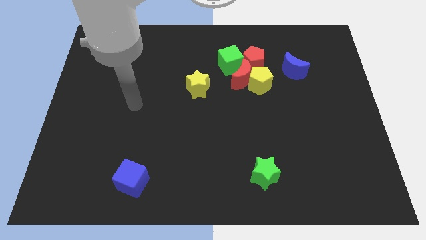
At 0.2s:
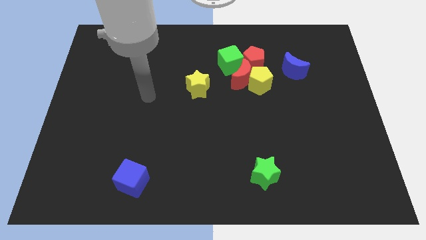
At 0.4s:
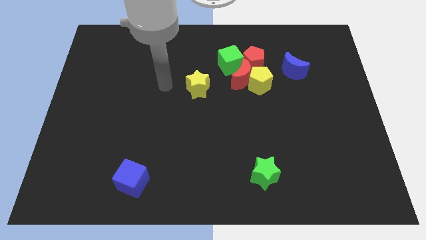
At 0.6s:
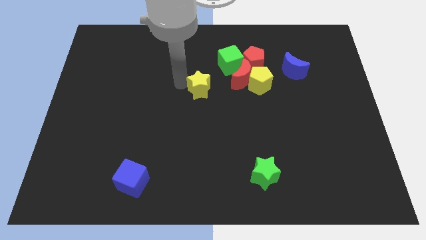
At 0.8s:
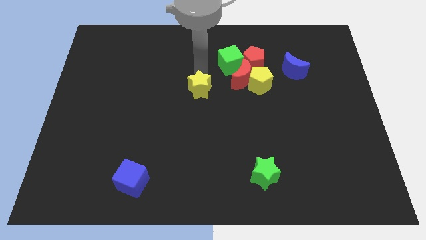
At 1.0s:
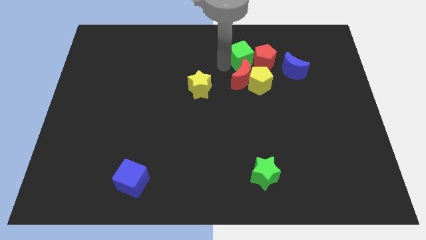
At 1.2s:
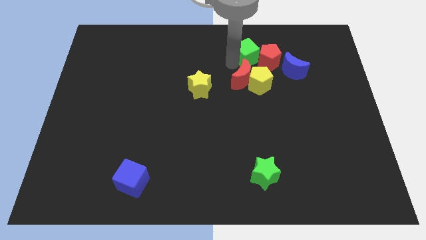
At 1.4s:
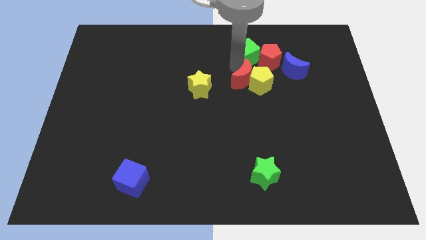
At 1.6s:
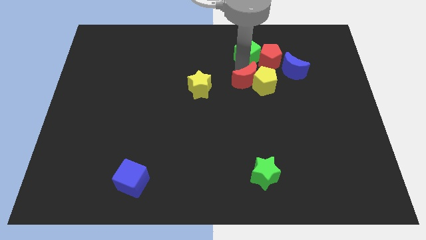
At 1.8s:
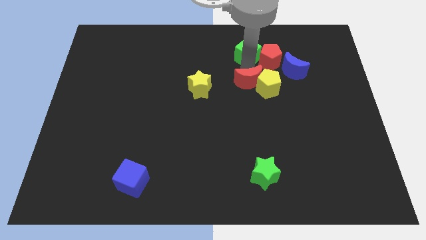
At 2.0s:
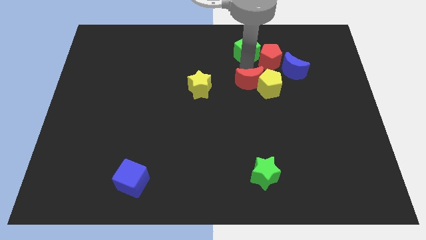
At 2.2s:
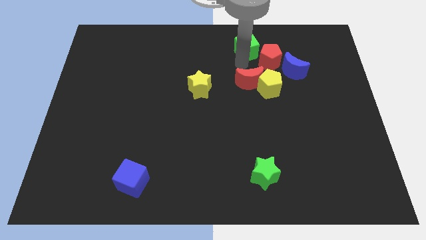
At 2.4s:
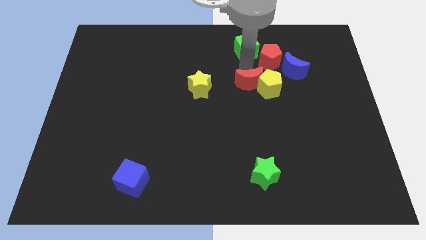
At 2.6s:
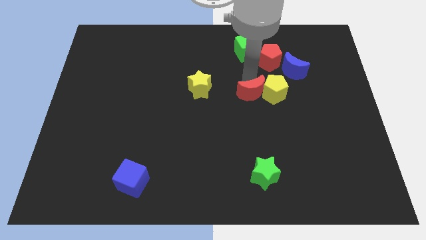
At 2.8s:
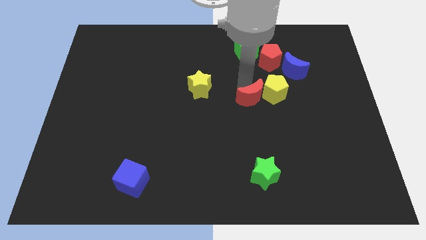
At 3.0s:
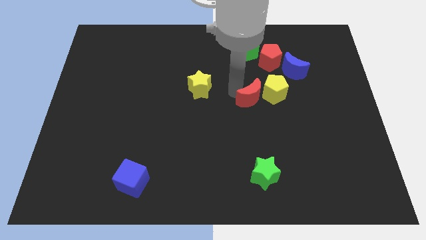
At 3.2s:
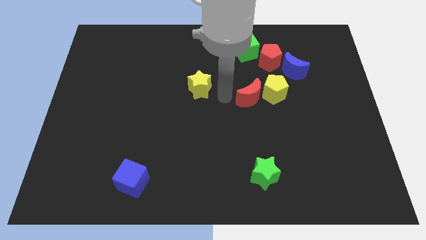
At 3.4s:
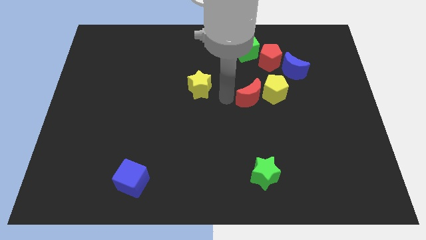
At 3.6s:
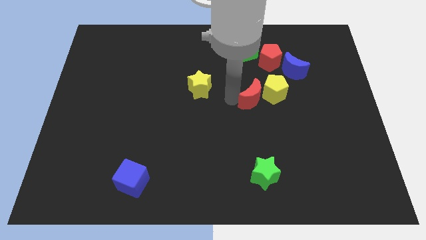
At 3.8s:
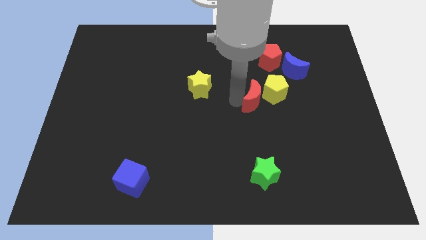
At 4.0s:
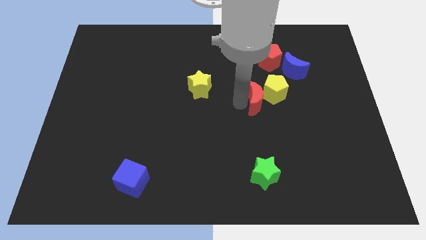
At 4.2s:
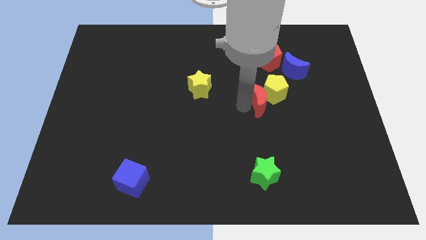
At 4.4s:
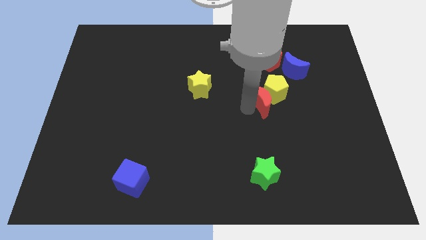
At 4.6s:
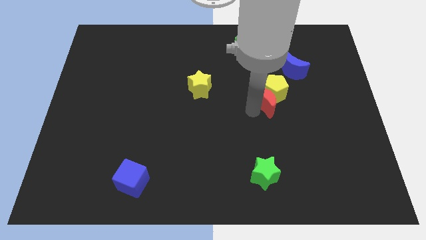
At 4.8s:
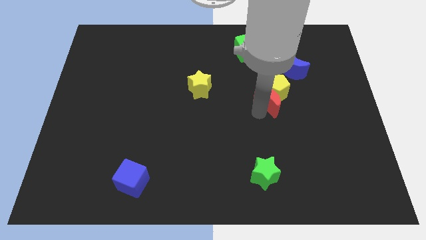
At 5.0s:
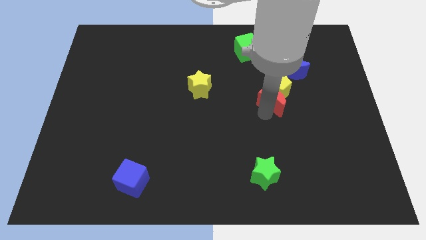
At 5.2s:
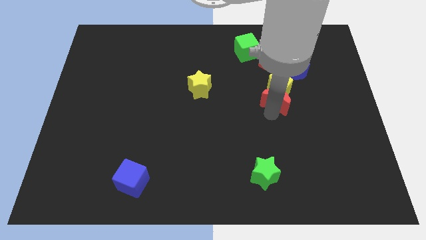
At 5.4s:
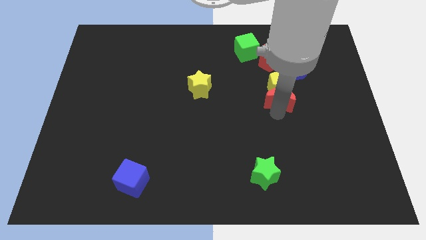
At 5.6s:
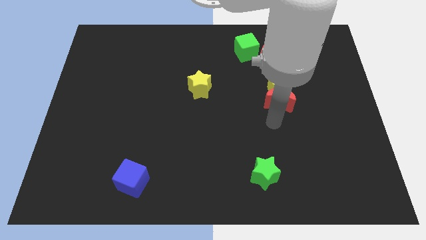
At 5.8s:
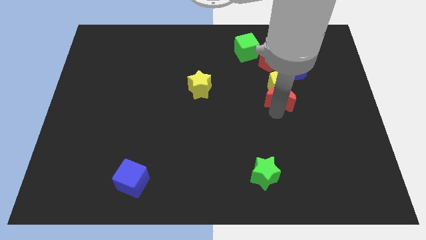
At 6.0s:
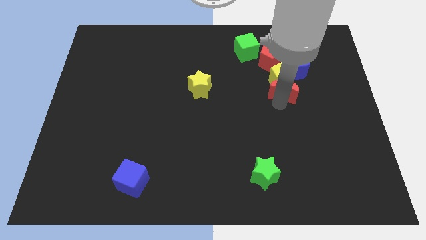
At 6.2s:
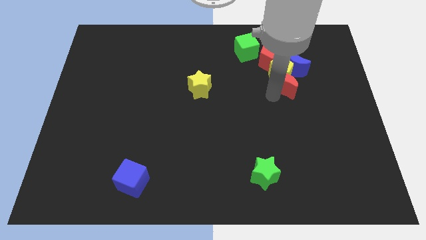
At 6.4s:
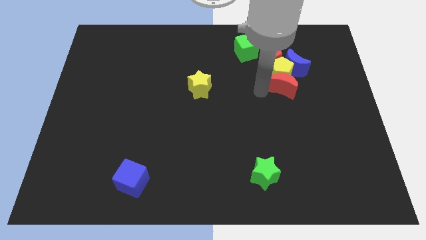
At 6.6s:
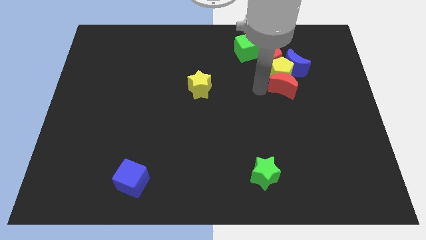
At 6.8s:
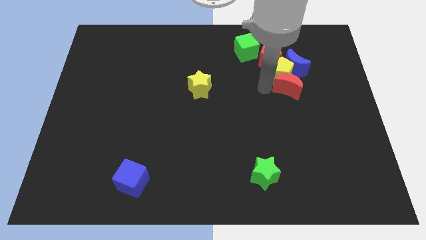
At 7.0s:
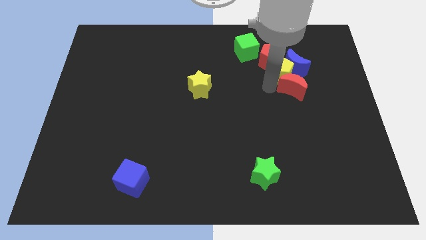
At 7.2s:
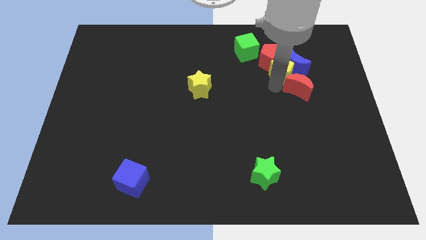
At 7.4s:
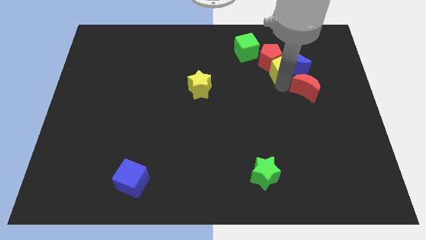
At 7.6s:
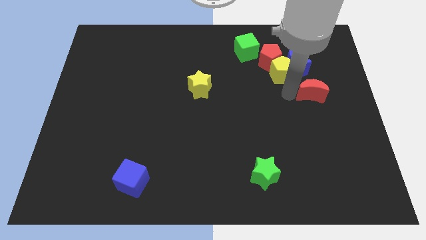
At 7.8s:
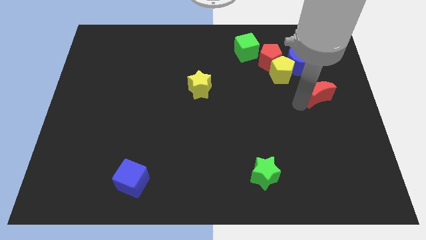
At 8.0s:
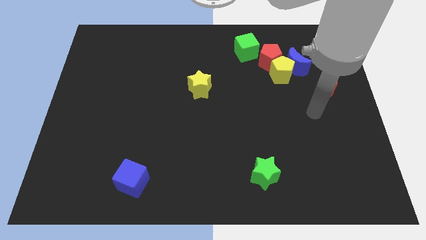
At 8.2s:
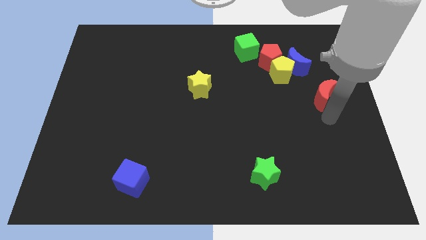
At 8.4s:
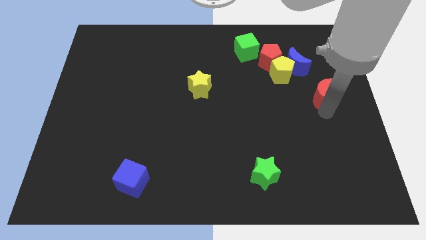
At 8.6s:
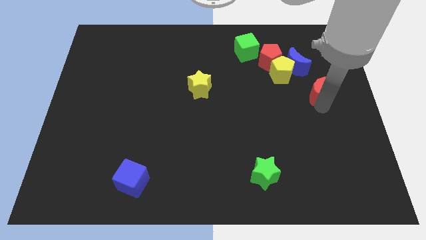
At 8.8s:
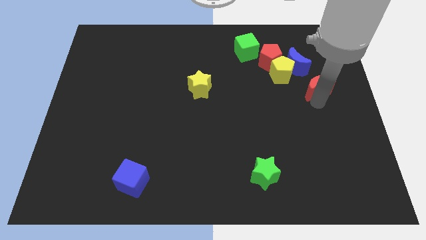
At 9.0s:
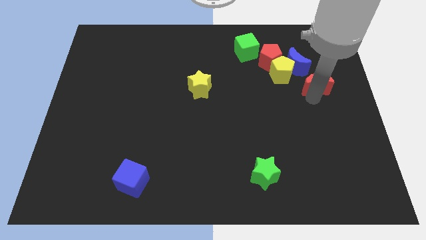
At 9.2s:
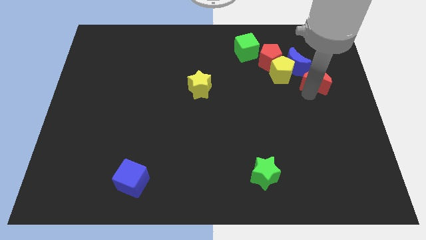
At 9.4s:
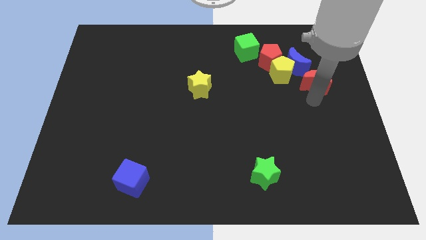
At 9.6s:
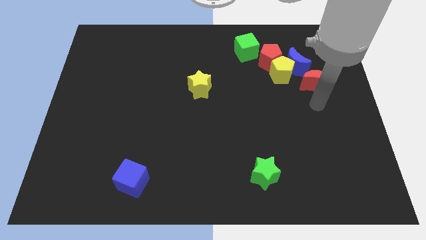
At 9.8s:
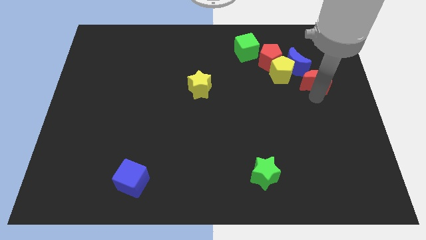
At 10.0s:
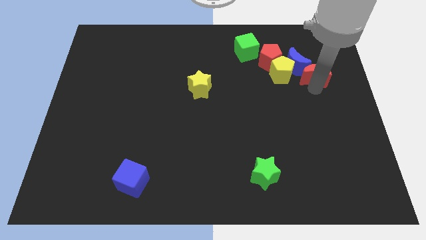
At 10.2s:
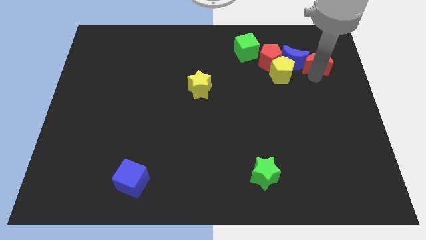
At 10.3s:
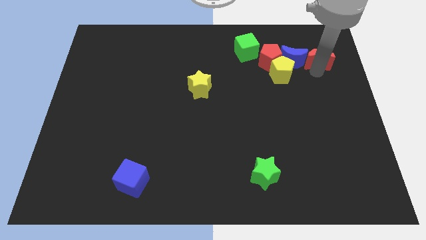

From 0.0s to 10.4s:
put the red moon to the top right side of the blue moon

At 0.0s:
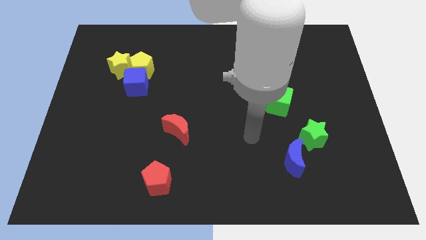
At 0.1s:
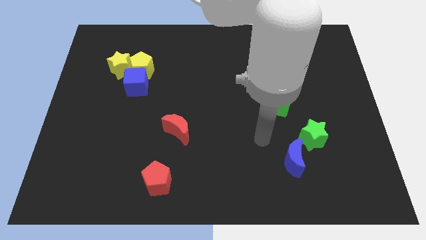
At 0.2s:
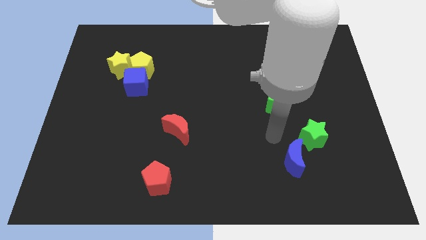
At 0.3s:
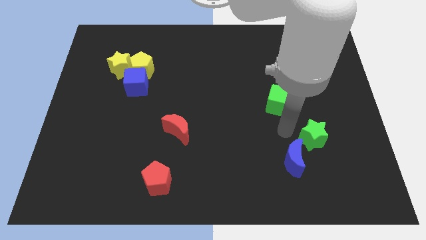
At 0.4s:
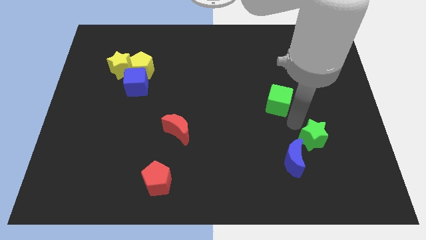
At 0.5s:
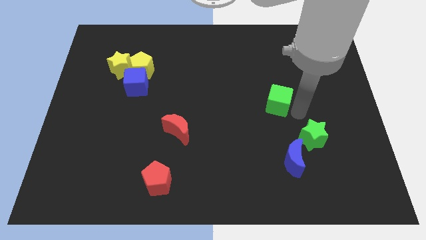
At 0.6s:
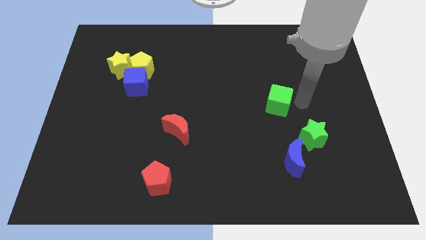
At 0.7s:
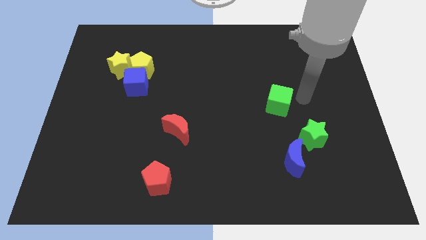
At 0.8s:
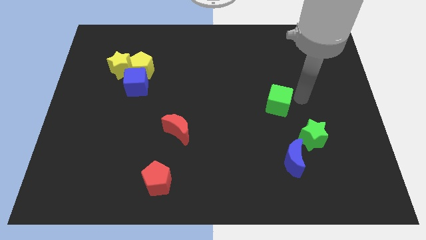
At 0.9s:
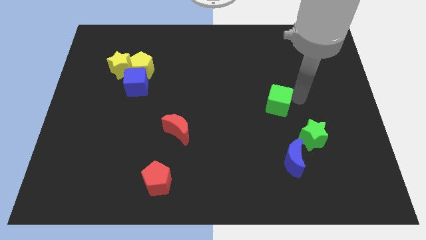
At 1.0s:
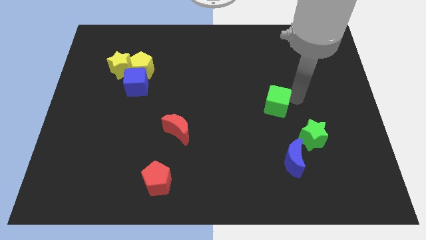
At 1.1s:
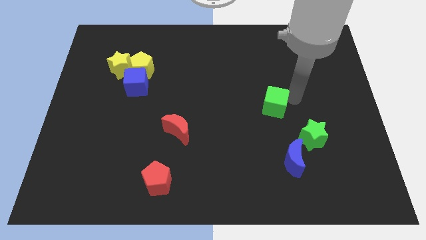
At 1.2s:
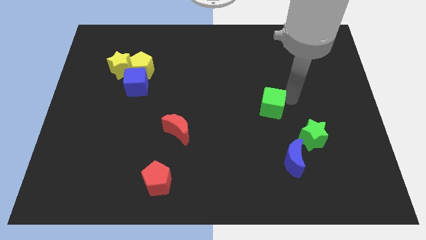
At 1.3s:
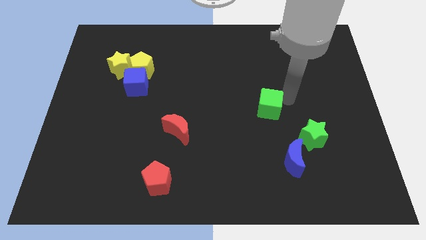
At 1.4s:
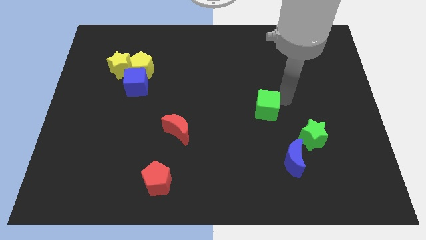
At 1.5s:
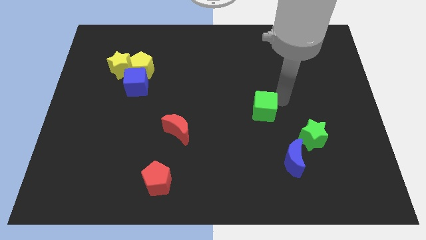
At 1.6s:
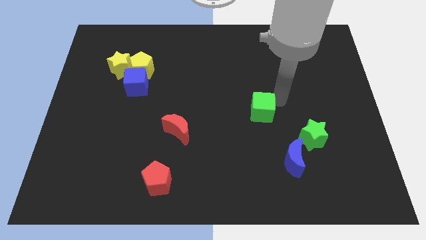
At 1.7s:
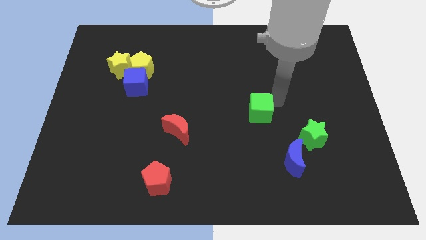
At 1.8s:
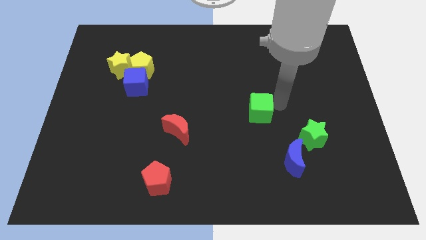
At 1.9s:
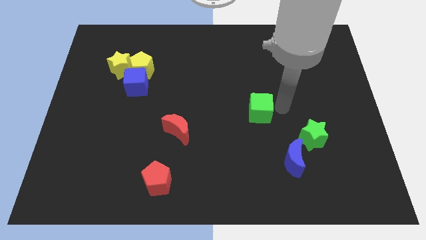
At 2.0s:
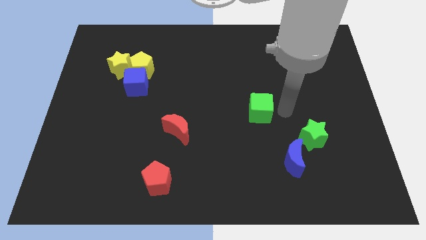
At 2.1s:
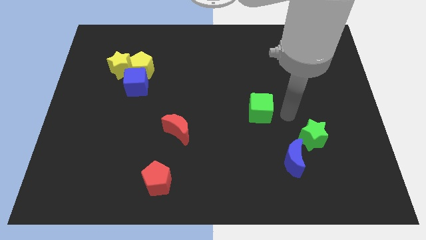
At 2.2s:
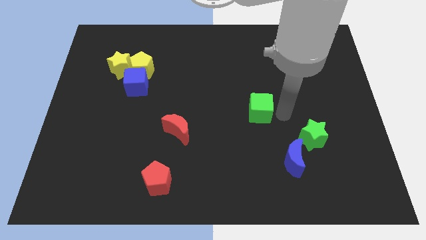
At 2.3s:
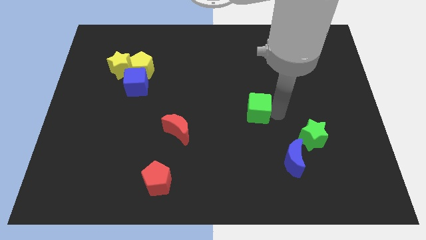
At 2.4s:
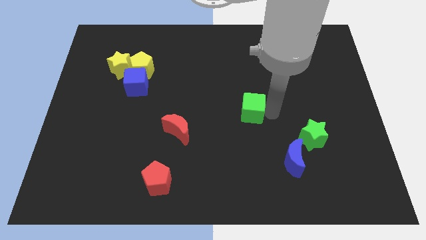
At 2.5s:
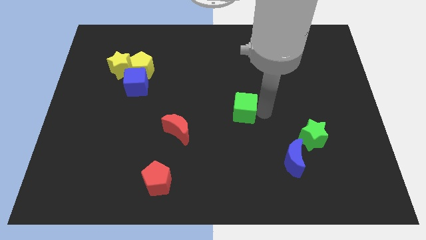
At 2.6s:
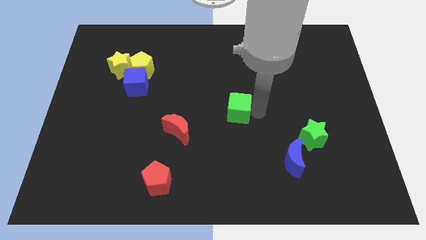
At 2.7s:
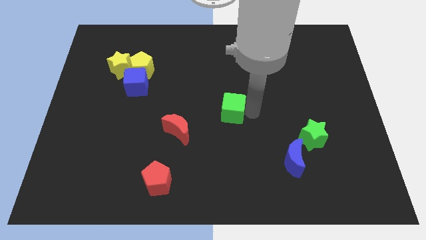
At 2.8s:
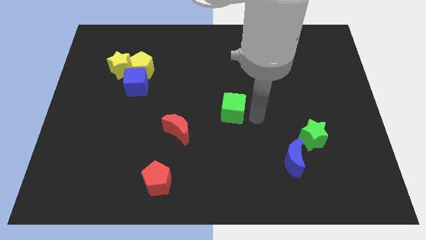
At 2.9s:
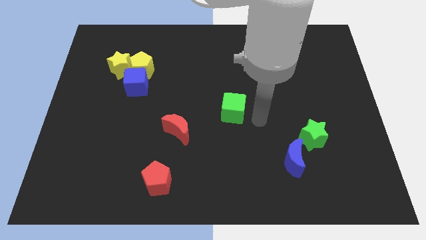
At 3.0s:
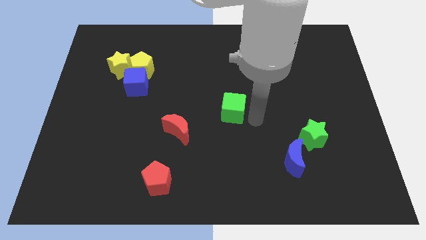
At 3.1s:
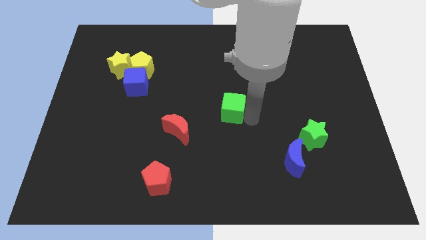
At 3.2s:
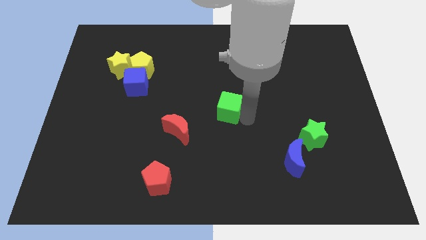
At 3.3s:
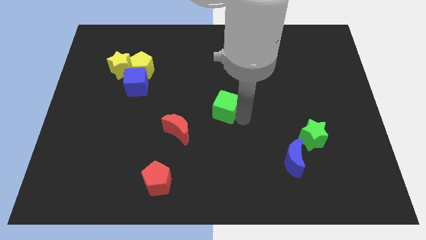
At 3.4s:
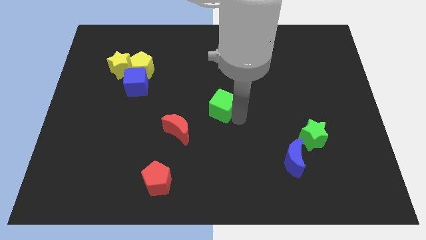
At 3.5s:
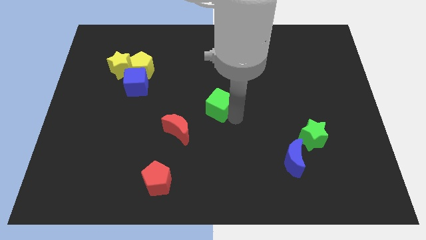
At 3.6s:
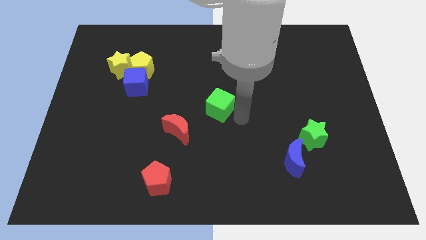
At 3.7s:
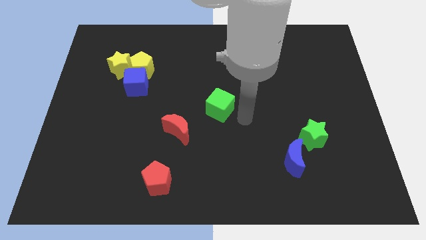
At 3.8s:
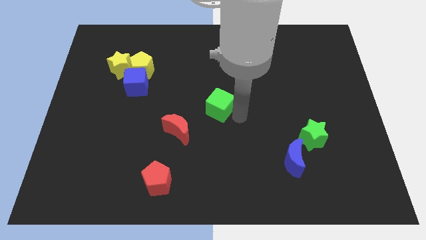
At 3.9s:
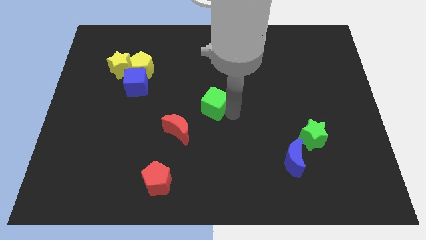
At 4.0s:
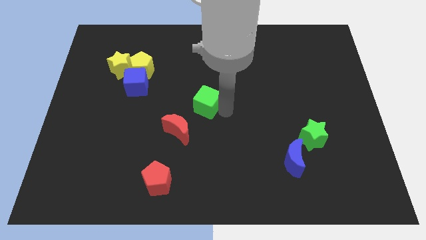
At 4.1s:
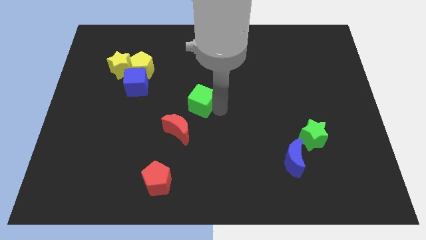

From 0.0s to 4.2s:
push the green cube to the top side of the red moon
